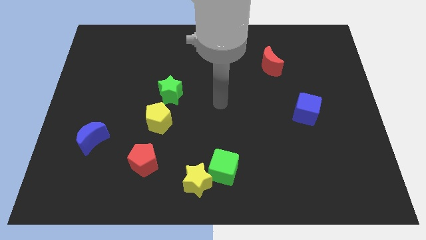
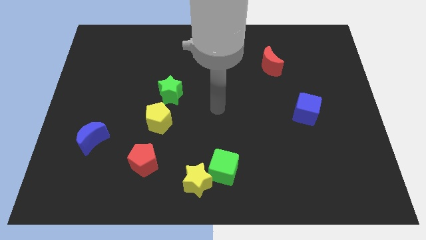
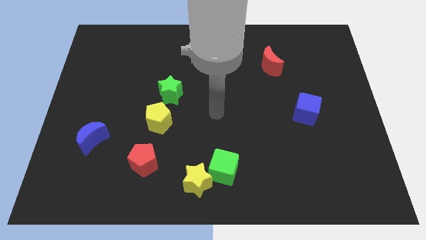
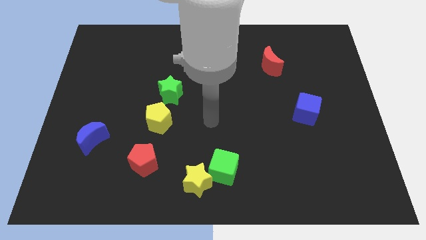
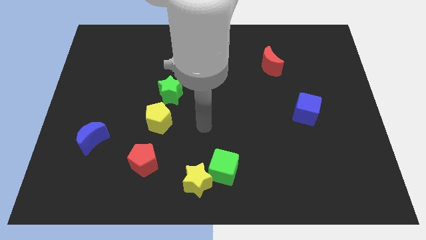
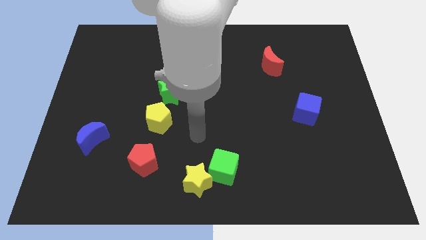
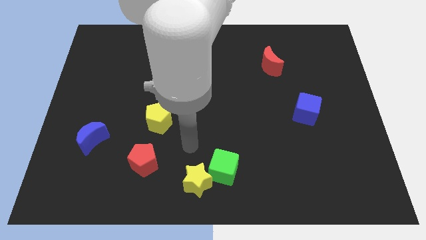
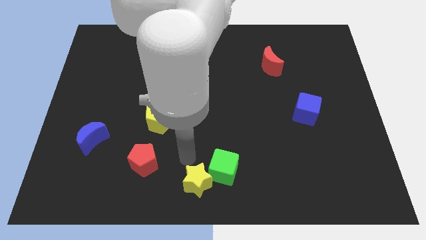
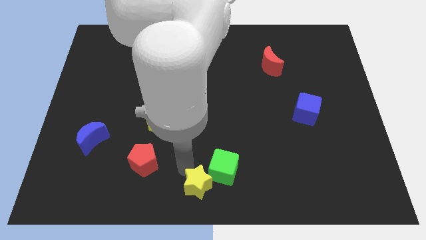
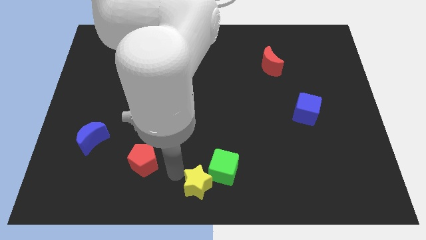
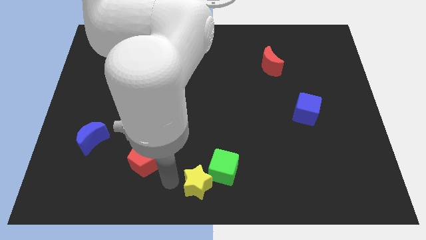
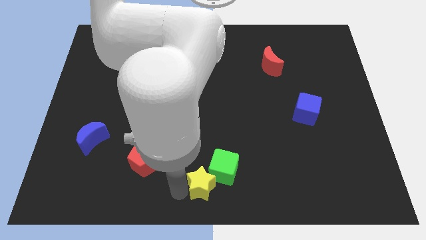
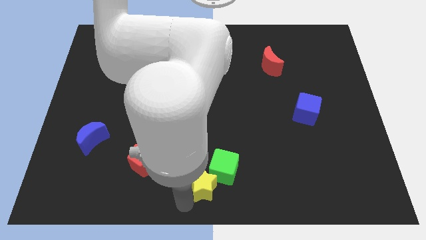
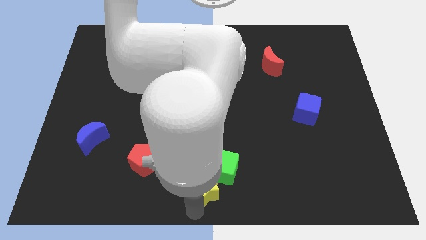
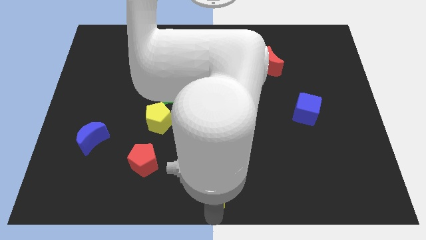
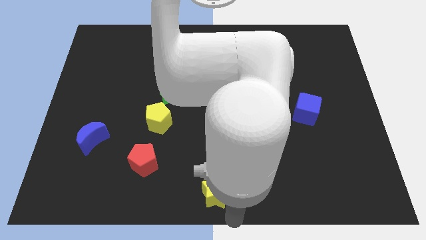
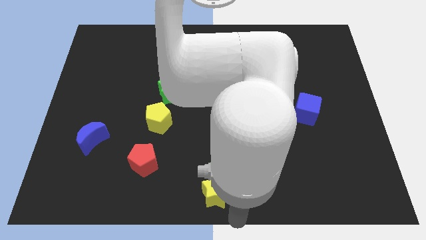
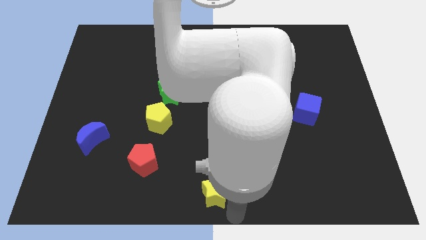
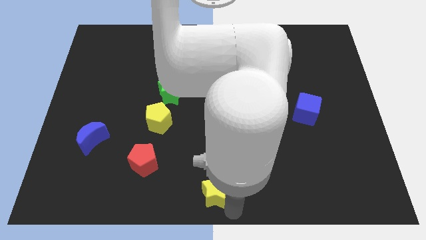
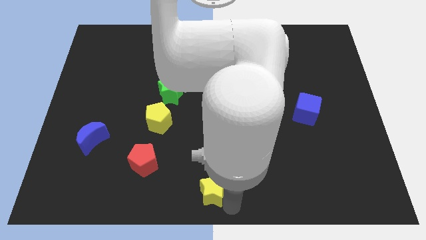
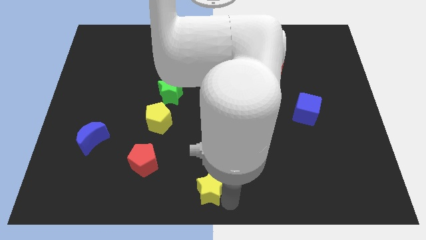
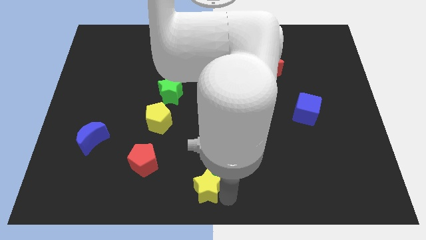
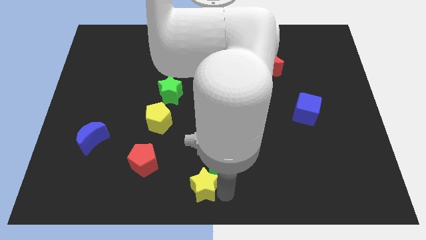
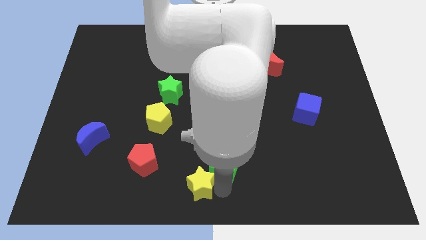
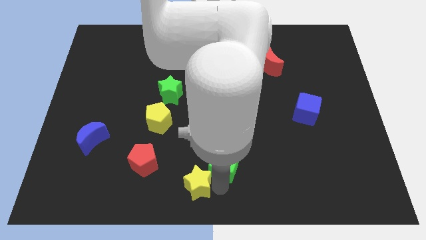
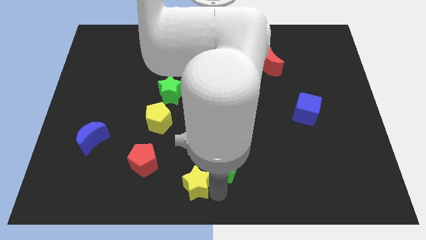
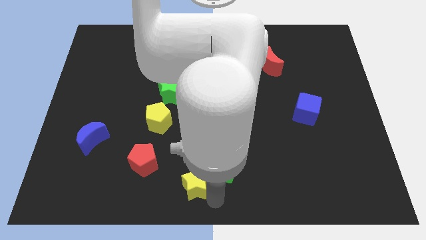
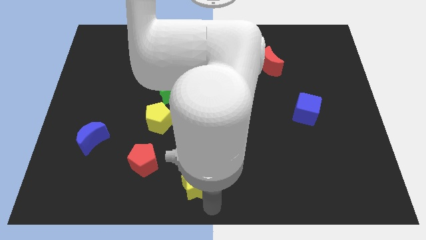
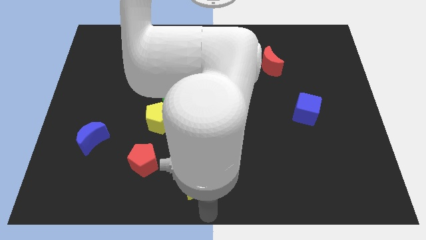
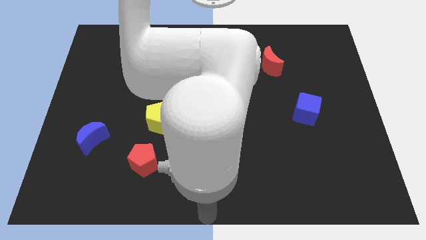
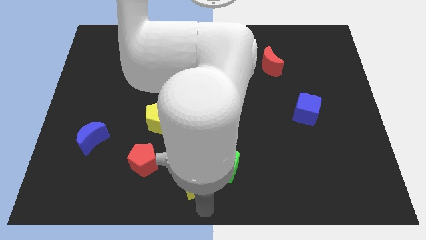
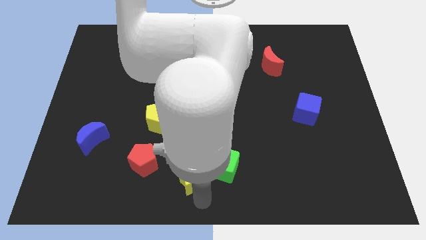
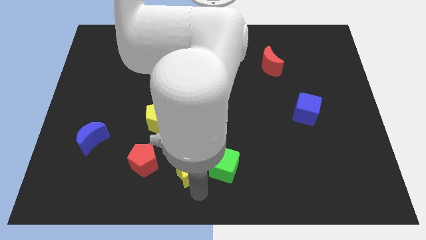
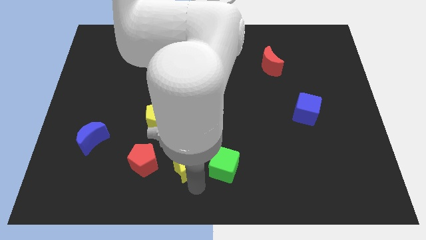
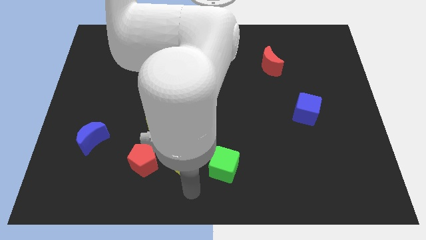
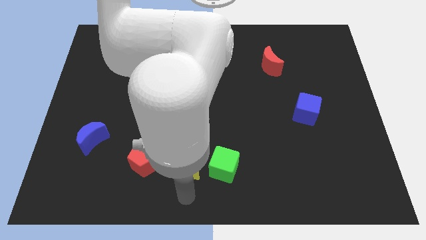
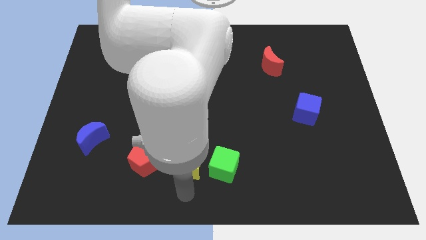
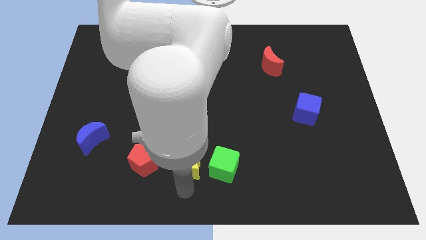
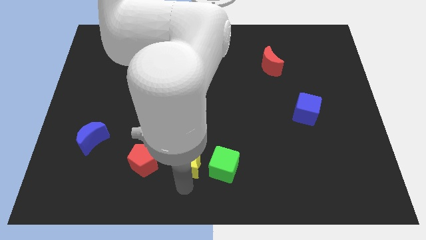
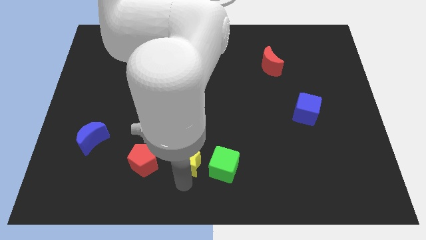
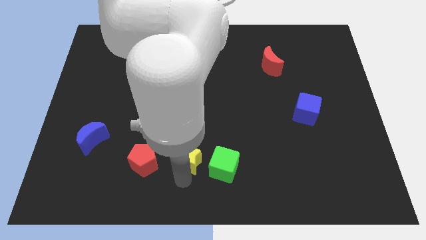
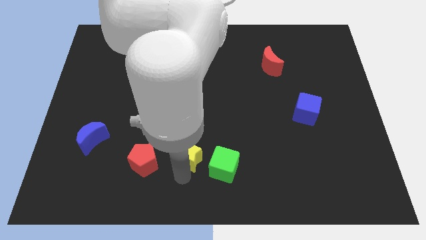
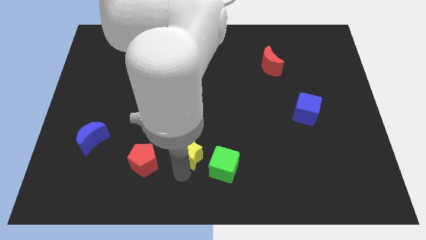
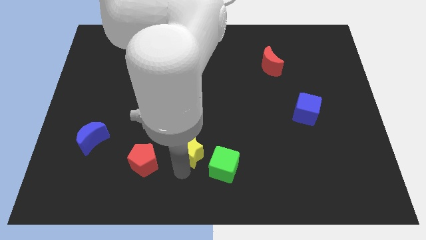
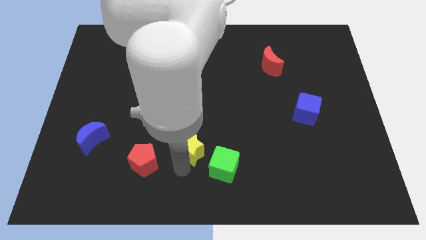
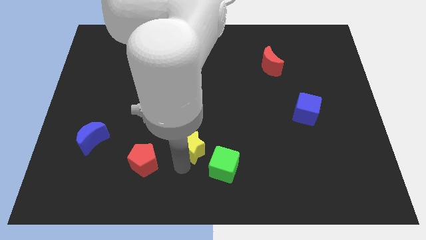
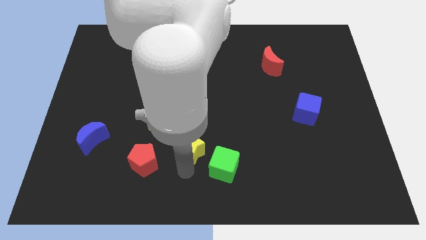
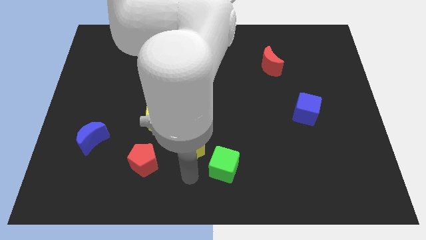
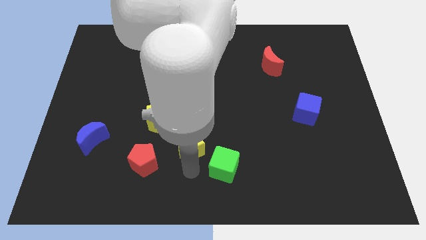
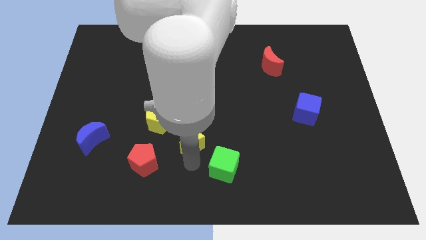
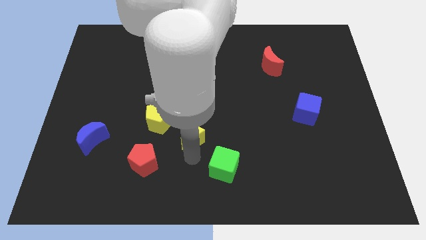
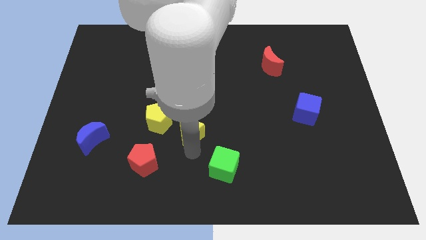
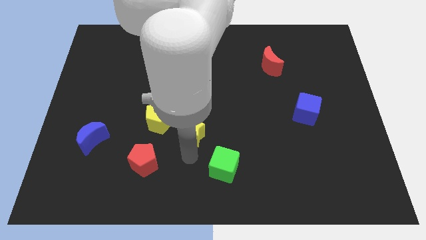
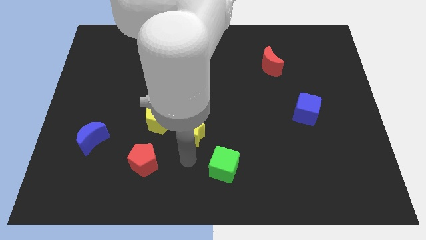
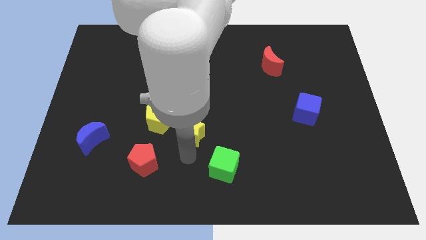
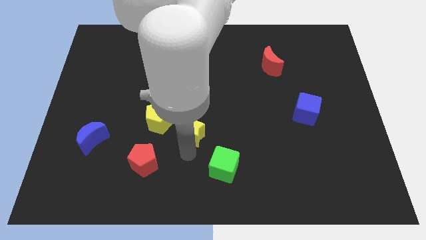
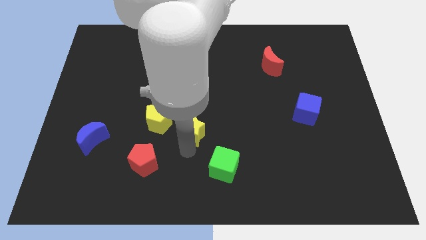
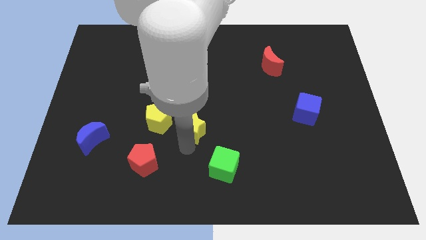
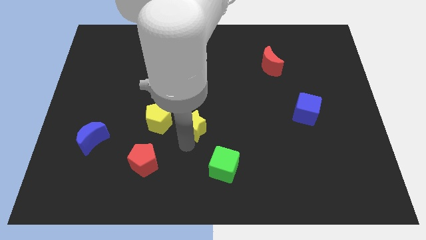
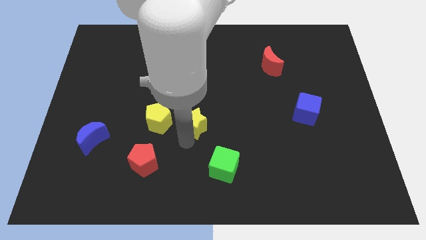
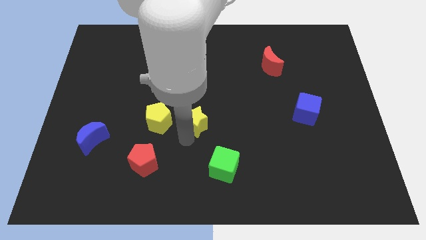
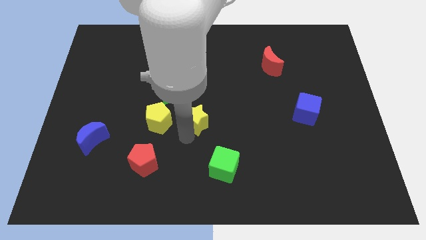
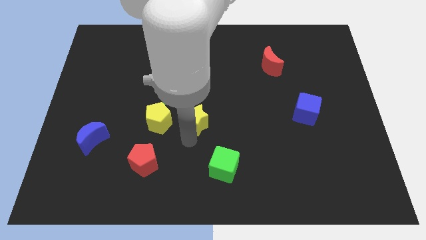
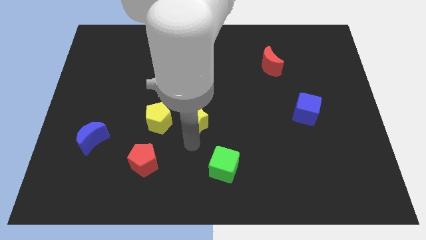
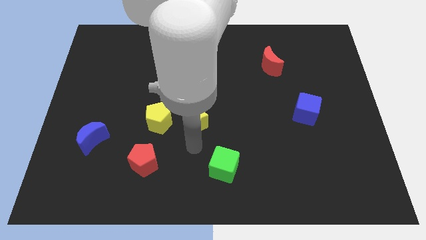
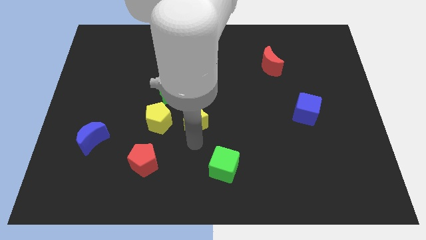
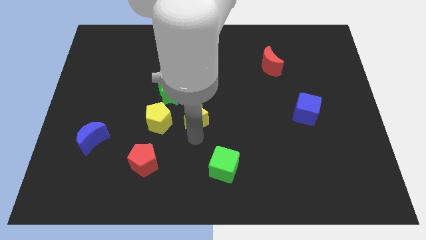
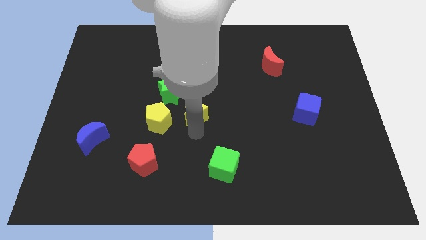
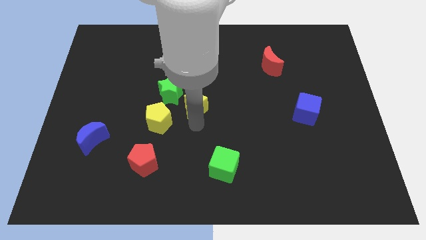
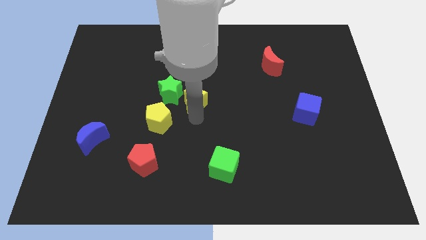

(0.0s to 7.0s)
push the yellow star upwards

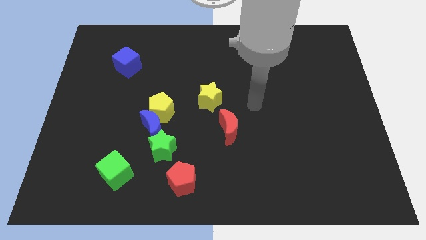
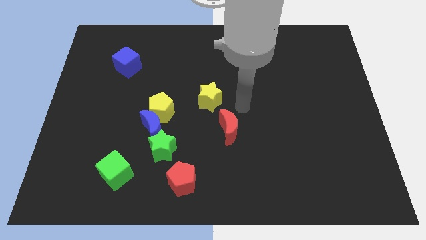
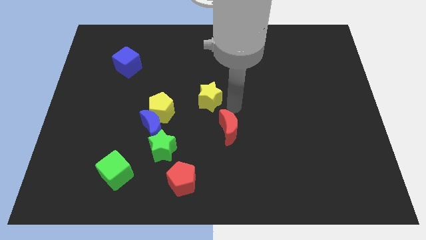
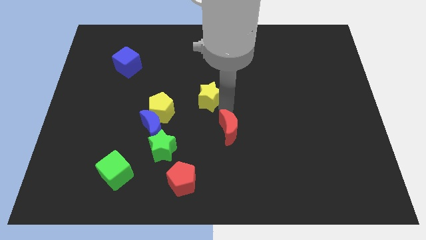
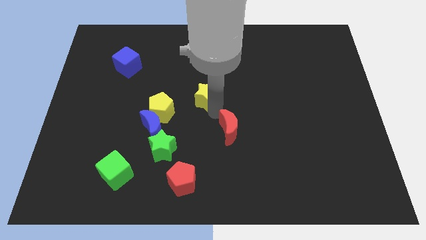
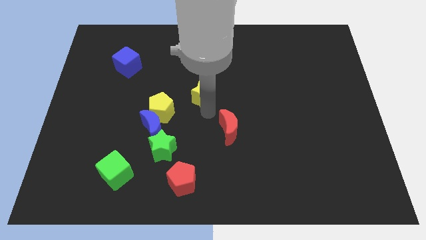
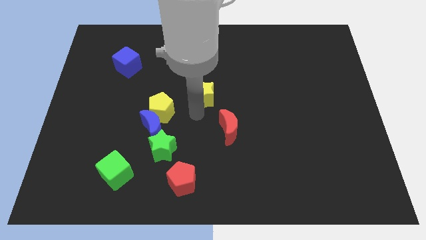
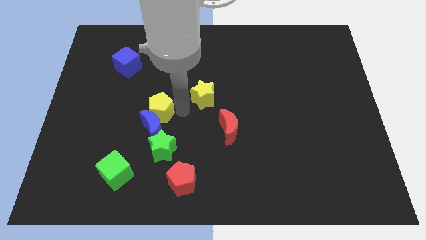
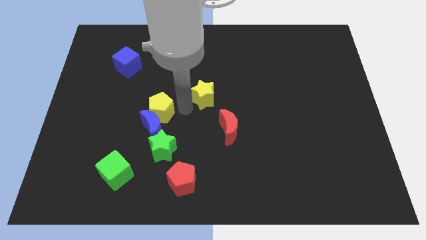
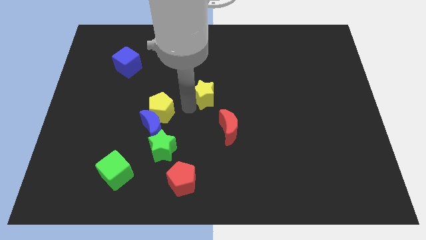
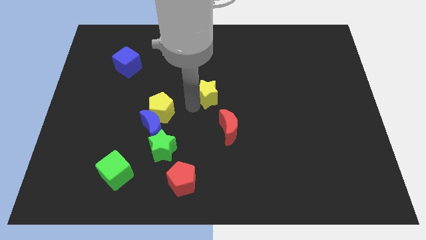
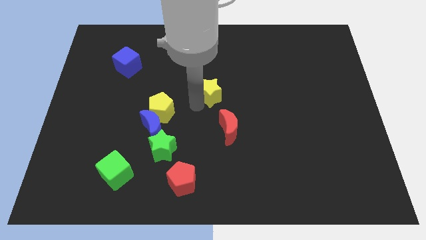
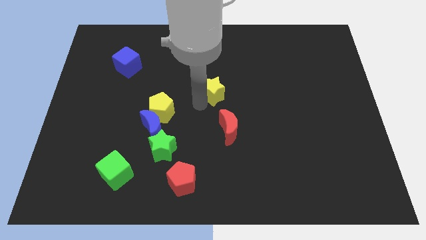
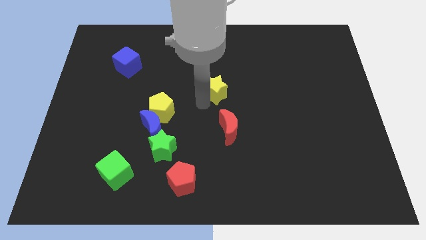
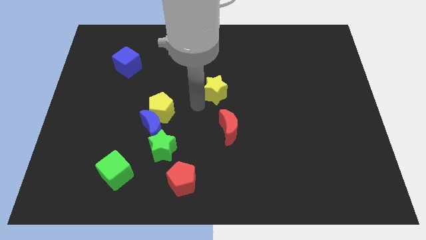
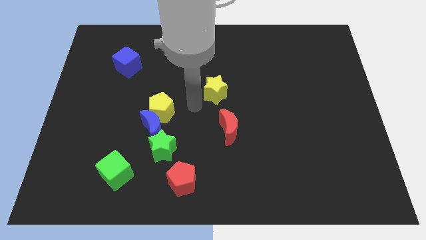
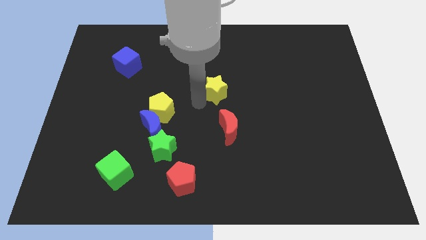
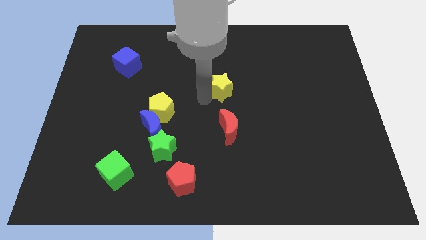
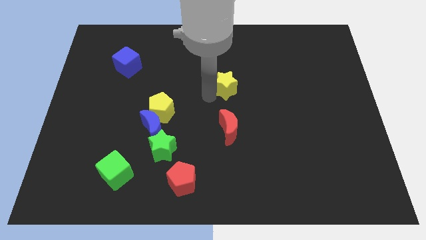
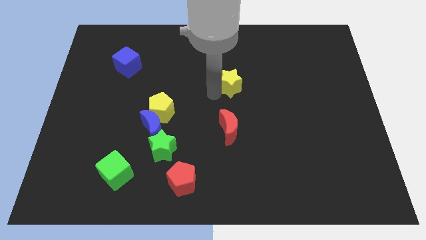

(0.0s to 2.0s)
push the yellow star up and to the right diagonally somewhat
